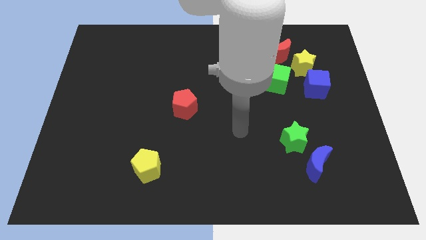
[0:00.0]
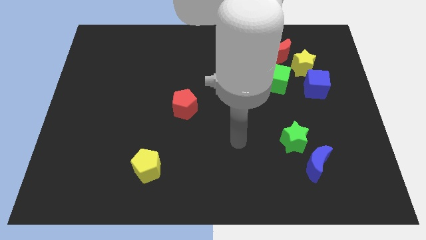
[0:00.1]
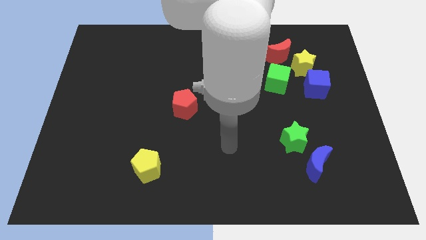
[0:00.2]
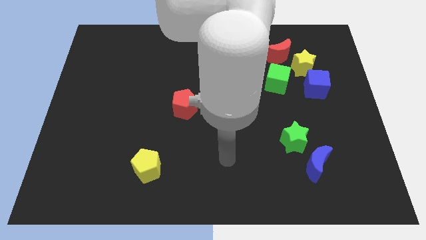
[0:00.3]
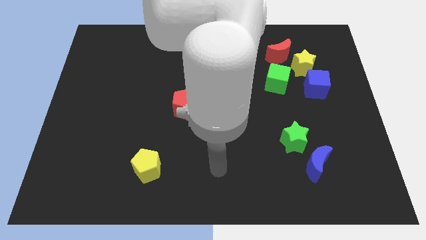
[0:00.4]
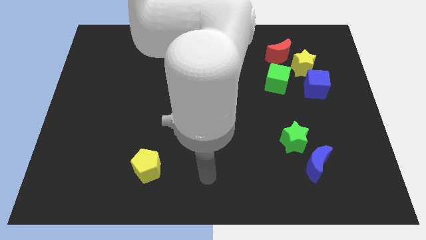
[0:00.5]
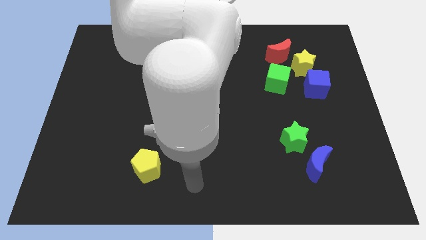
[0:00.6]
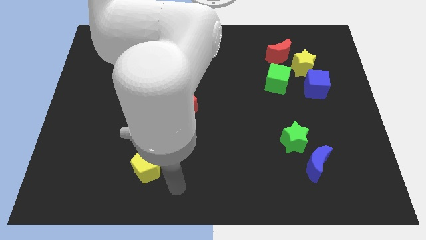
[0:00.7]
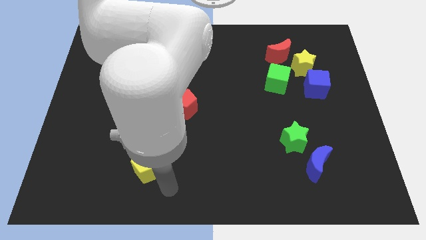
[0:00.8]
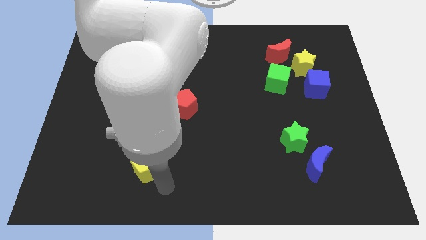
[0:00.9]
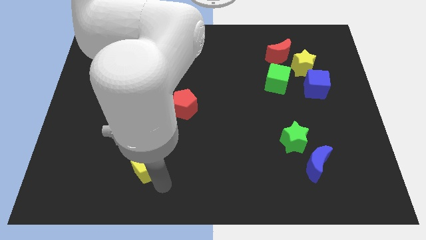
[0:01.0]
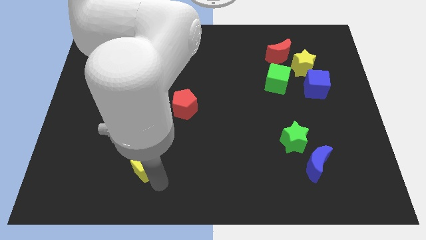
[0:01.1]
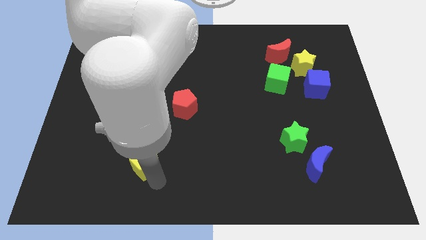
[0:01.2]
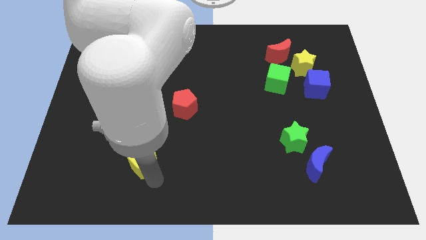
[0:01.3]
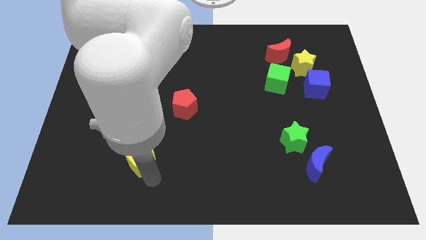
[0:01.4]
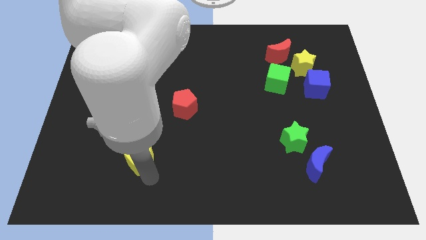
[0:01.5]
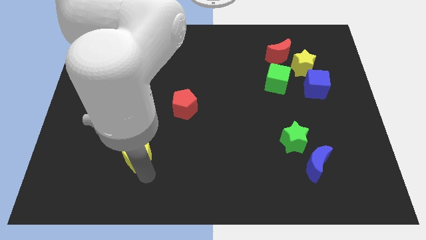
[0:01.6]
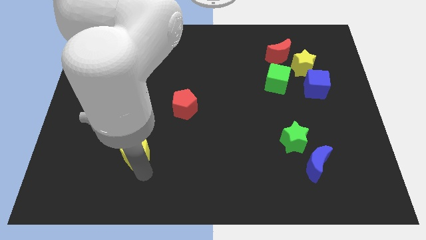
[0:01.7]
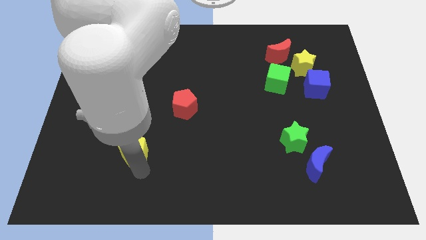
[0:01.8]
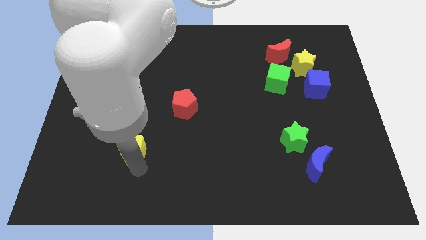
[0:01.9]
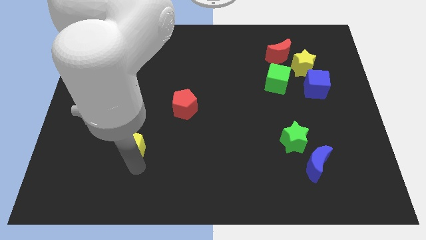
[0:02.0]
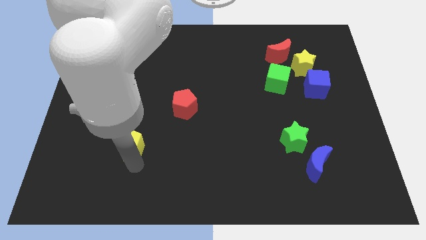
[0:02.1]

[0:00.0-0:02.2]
slide the yellow pentagon upwards and then to the left a little

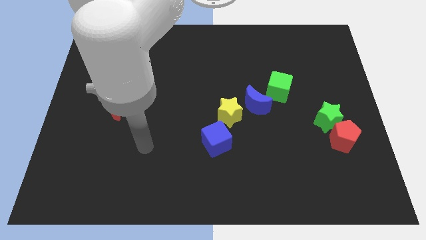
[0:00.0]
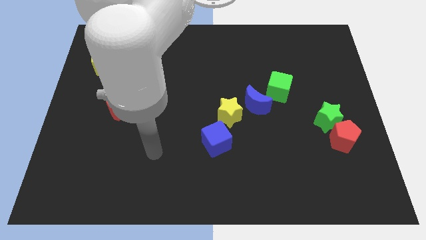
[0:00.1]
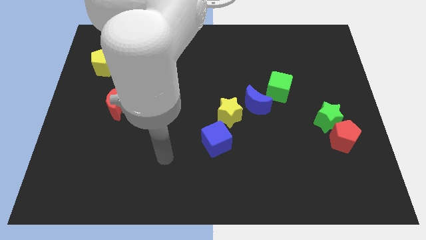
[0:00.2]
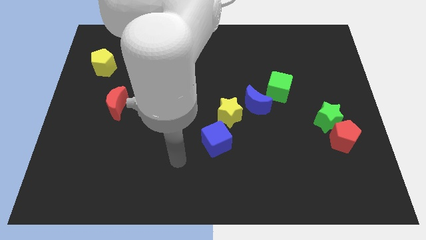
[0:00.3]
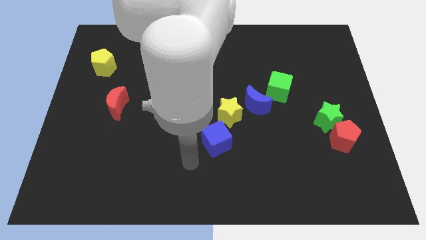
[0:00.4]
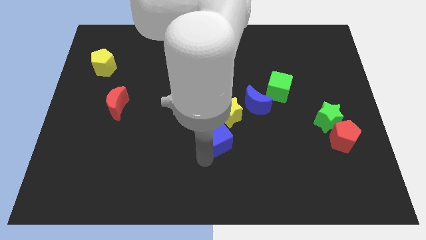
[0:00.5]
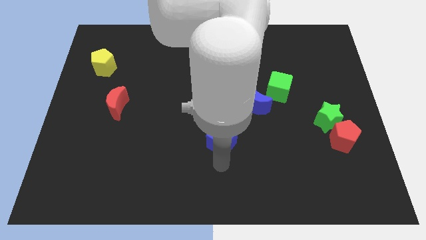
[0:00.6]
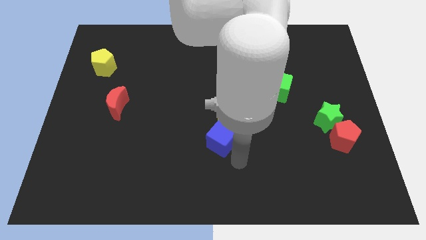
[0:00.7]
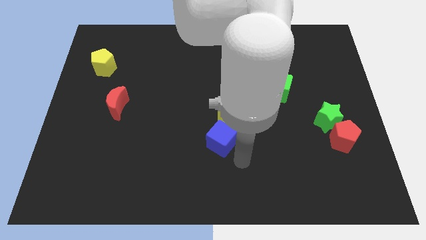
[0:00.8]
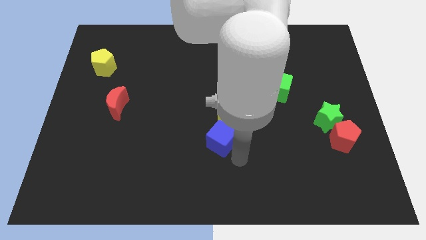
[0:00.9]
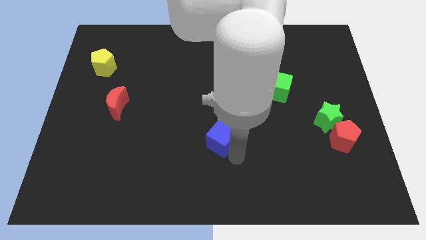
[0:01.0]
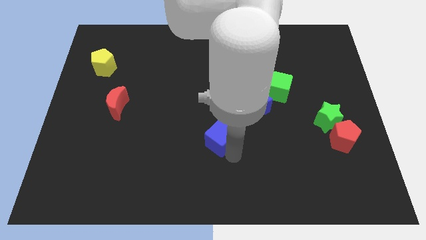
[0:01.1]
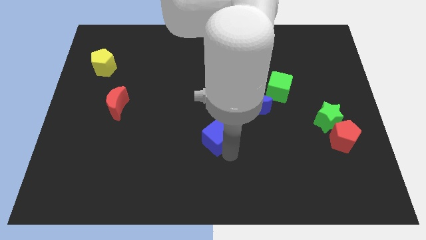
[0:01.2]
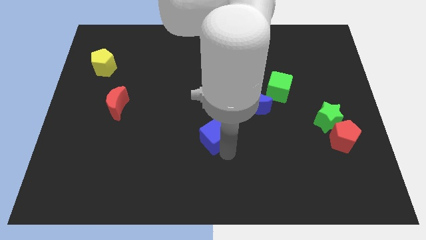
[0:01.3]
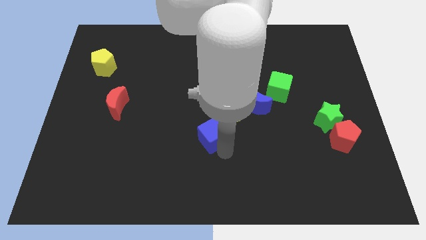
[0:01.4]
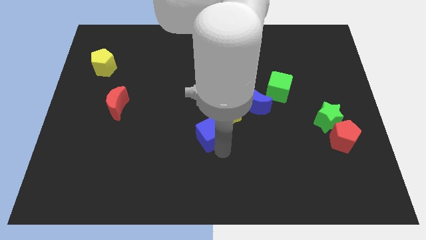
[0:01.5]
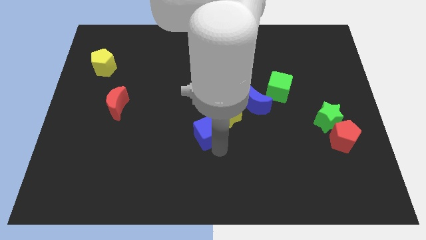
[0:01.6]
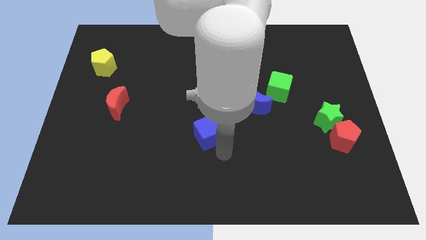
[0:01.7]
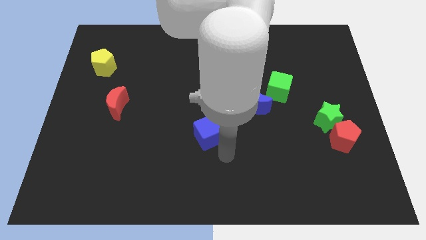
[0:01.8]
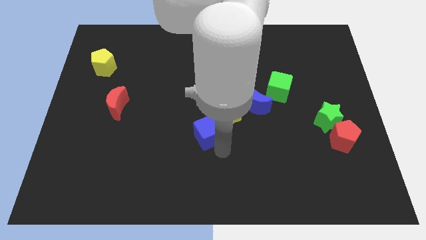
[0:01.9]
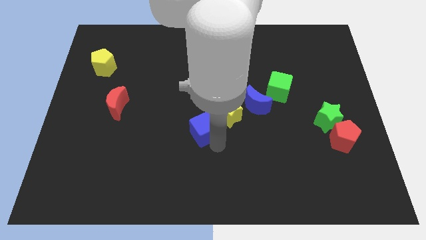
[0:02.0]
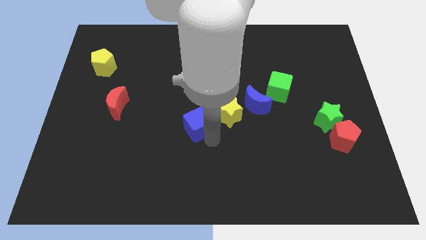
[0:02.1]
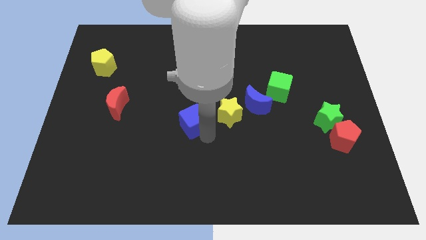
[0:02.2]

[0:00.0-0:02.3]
slightly push the blue cube upwards and to the left

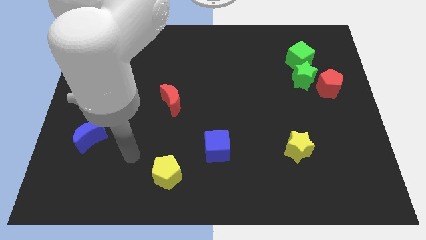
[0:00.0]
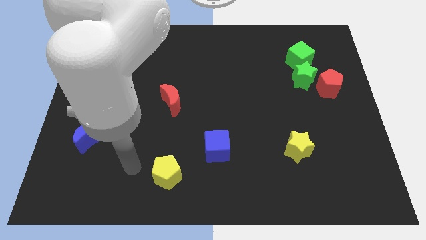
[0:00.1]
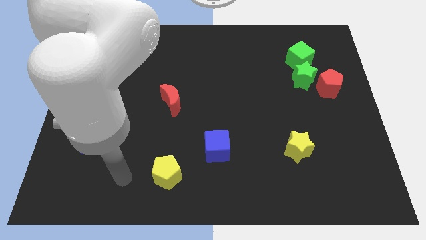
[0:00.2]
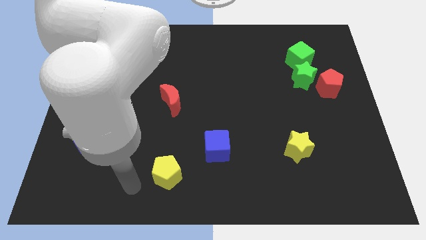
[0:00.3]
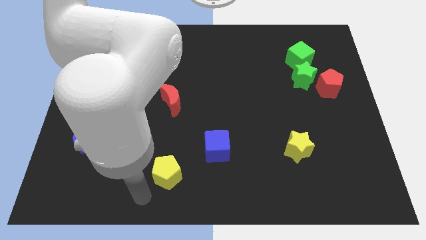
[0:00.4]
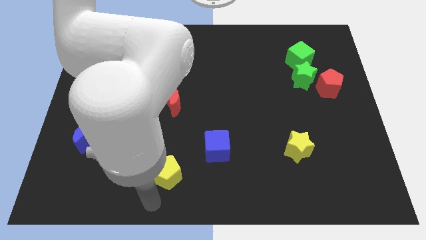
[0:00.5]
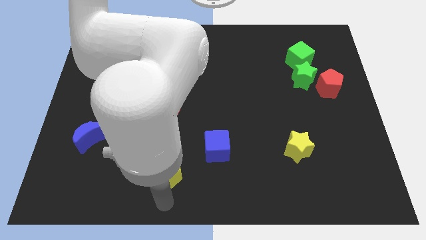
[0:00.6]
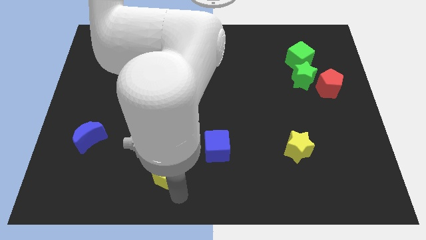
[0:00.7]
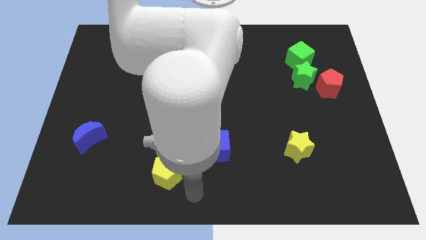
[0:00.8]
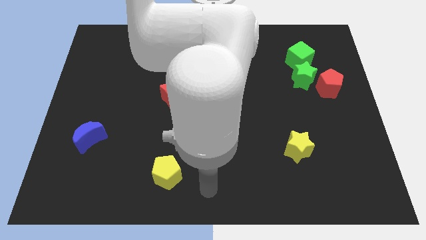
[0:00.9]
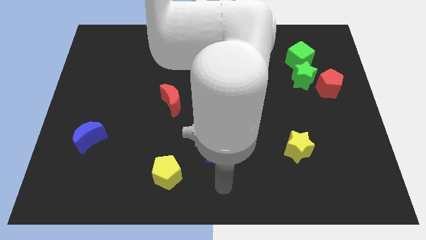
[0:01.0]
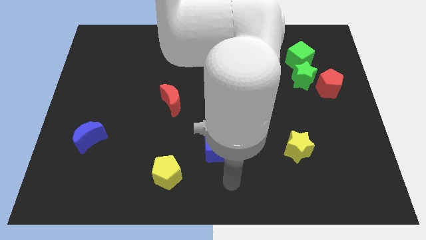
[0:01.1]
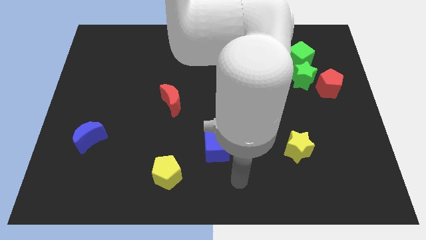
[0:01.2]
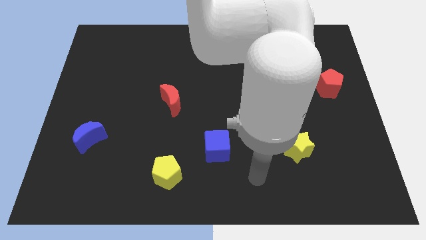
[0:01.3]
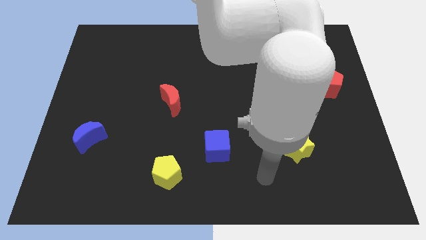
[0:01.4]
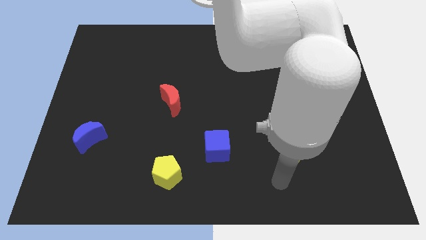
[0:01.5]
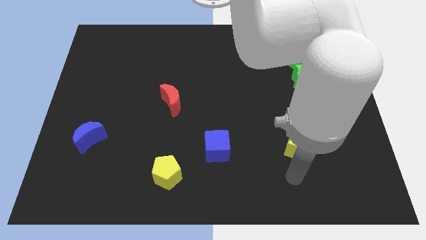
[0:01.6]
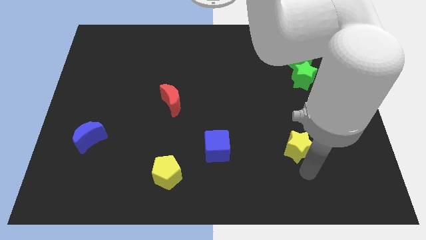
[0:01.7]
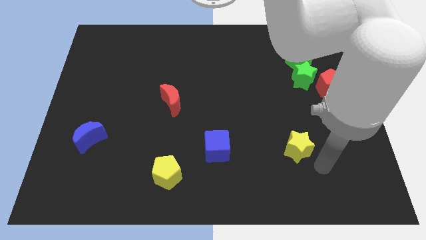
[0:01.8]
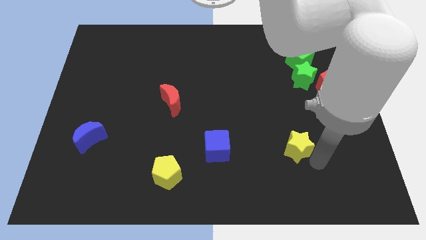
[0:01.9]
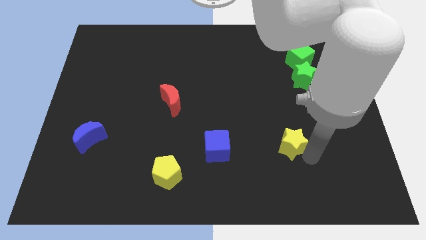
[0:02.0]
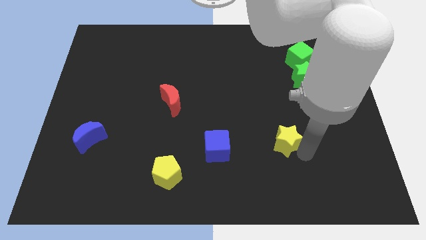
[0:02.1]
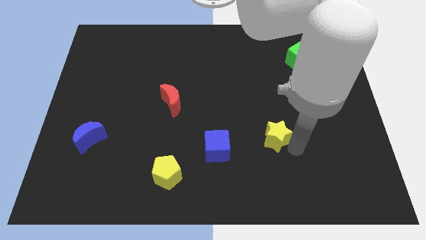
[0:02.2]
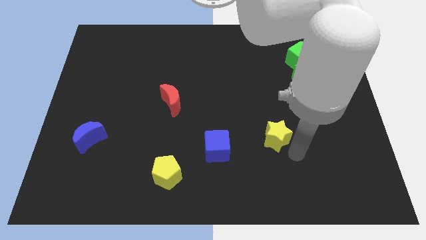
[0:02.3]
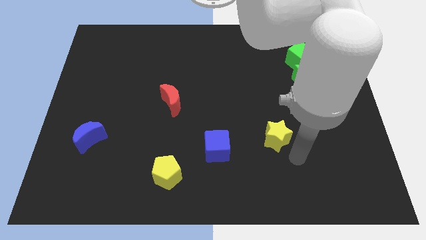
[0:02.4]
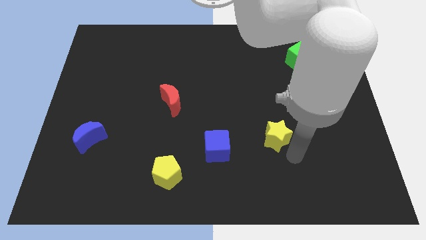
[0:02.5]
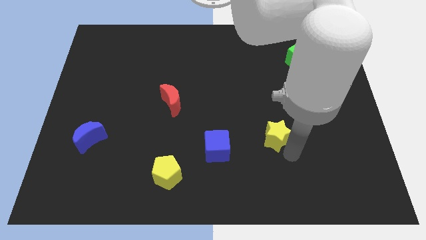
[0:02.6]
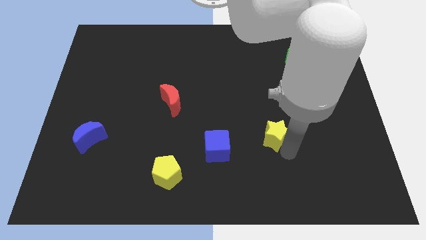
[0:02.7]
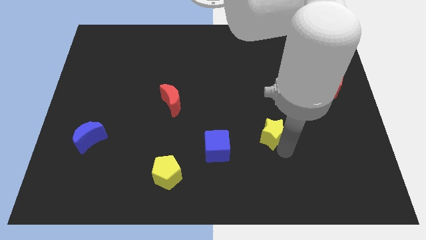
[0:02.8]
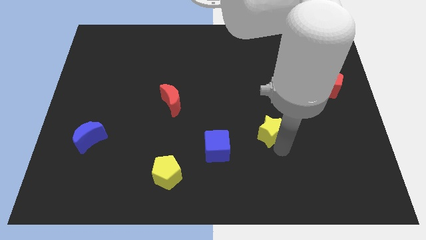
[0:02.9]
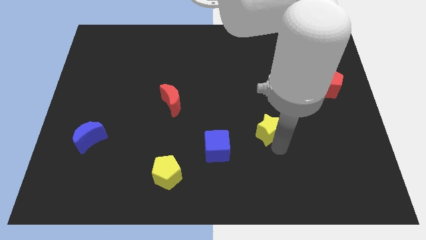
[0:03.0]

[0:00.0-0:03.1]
move the yellow star upwards and left a bit

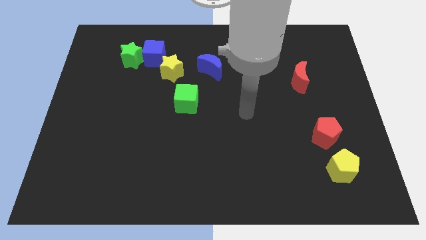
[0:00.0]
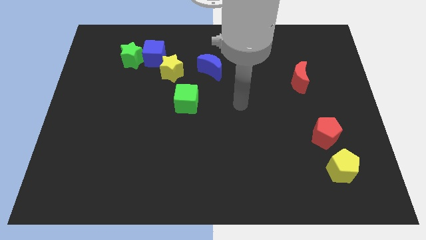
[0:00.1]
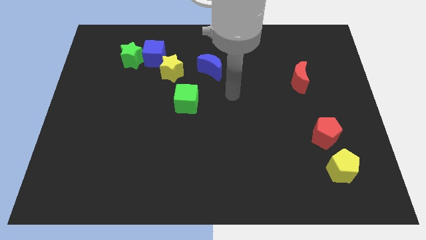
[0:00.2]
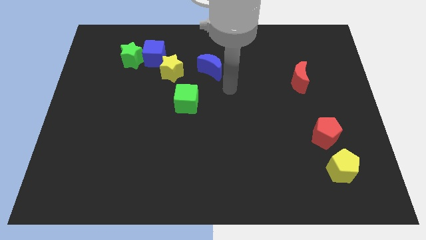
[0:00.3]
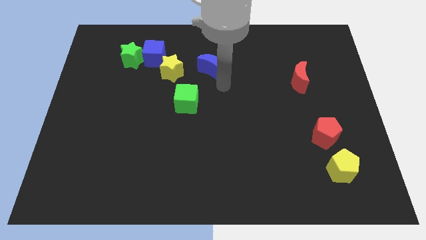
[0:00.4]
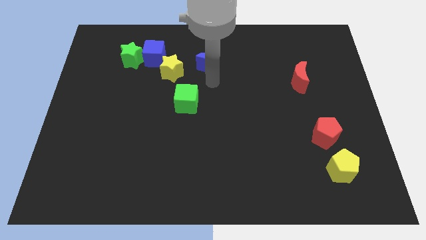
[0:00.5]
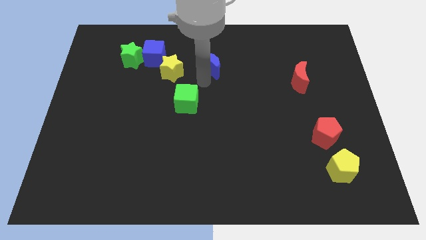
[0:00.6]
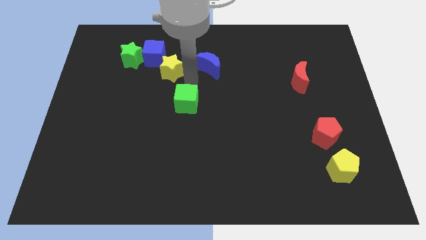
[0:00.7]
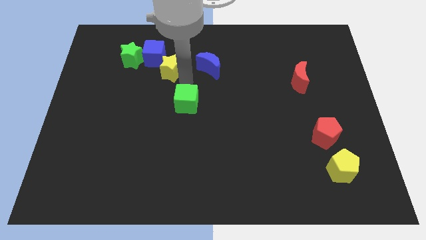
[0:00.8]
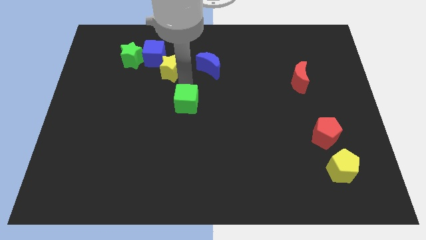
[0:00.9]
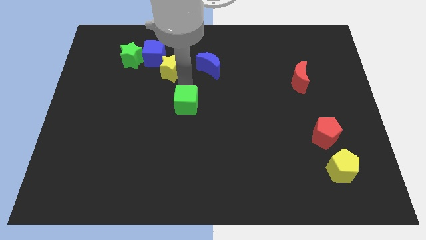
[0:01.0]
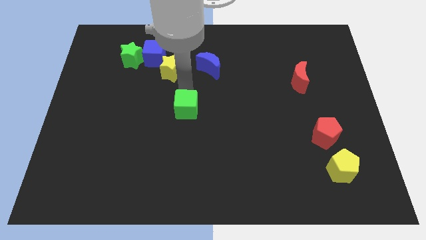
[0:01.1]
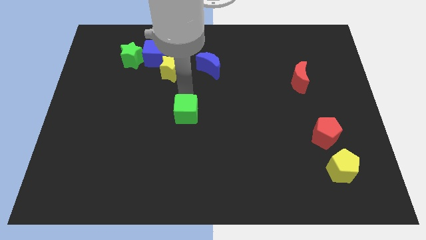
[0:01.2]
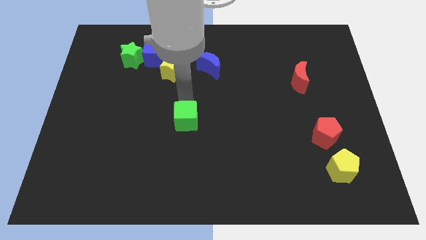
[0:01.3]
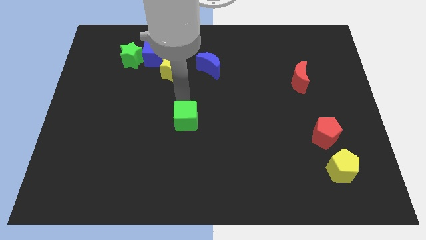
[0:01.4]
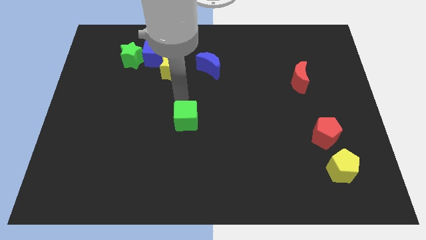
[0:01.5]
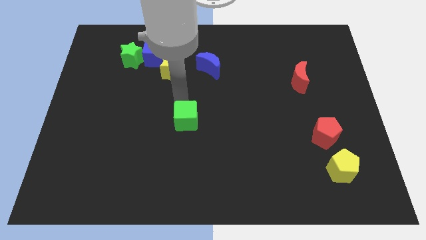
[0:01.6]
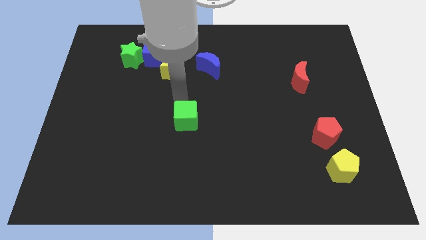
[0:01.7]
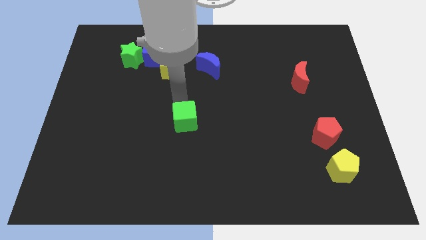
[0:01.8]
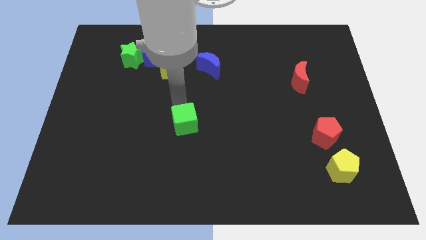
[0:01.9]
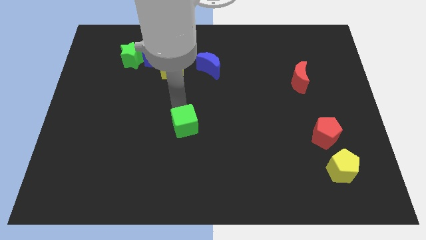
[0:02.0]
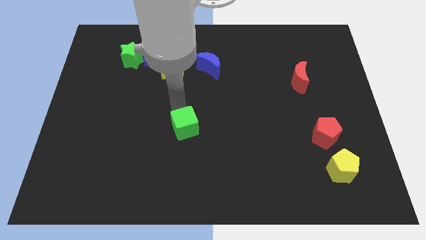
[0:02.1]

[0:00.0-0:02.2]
slightly move the green cube downwards
